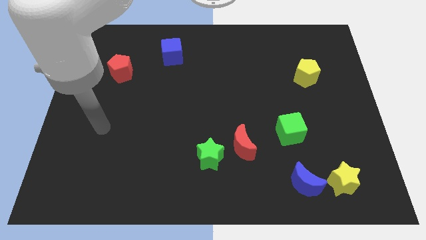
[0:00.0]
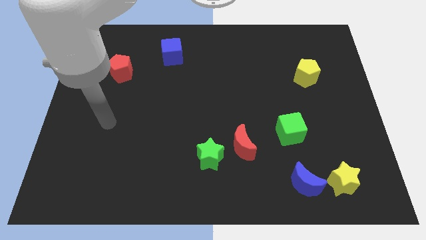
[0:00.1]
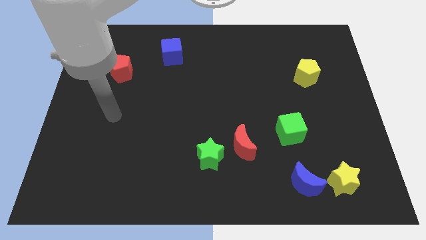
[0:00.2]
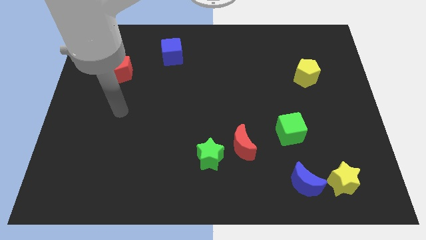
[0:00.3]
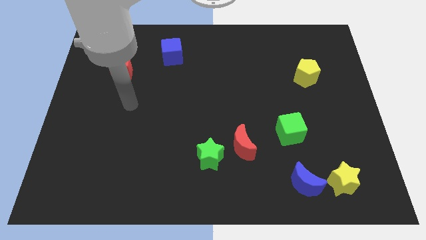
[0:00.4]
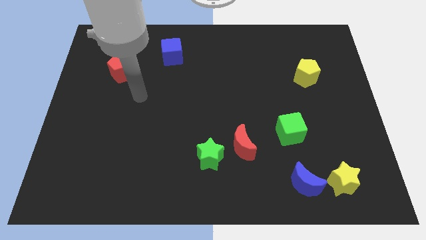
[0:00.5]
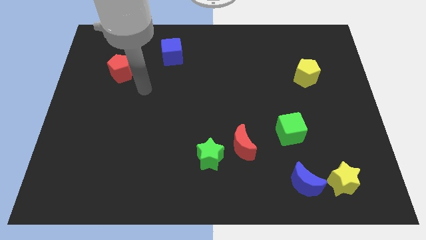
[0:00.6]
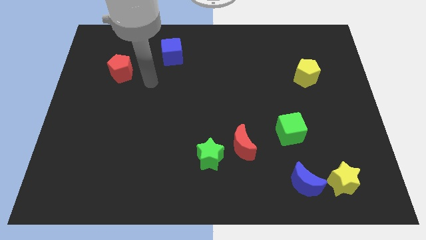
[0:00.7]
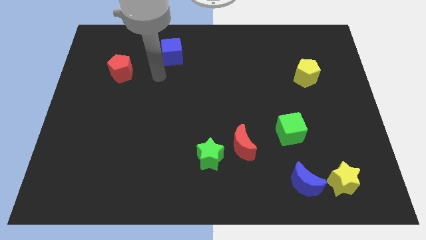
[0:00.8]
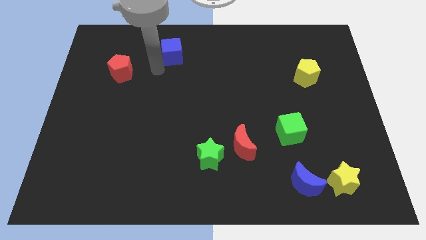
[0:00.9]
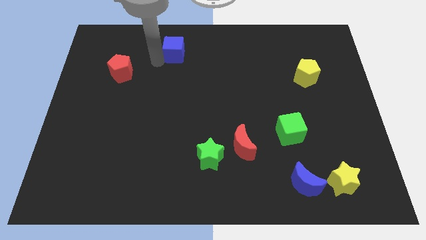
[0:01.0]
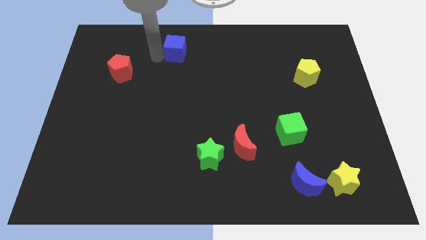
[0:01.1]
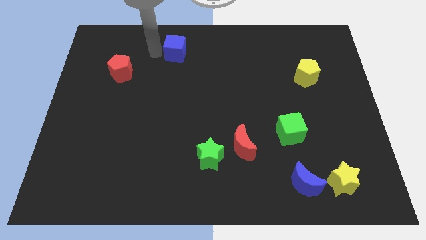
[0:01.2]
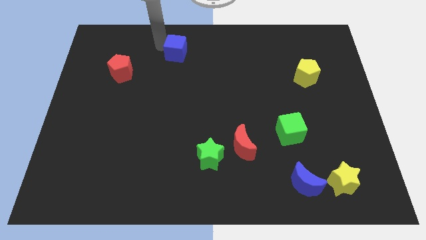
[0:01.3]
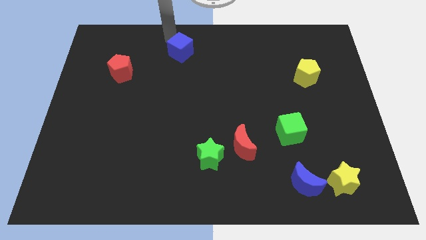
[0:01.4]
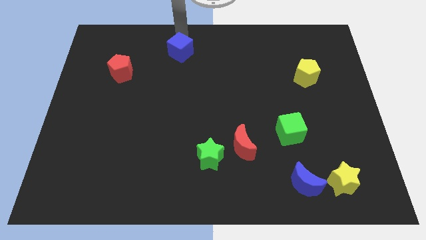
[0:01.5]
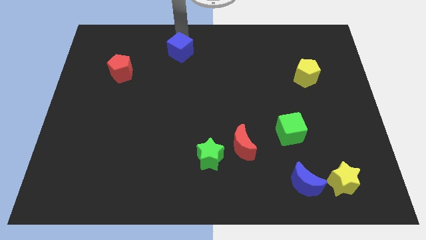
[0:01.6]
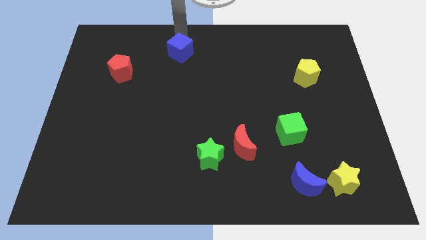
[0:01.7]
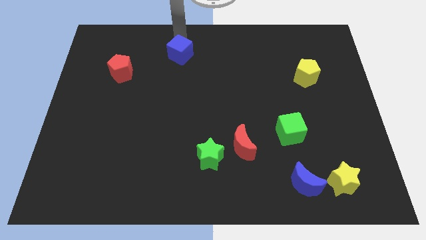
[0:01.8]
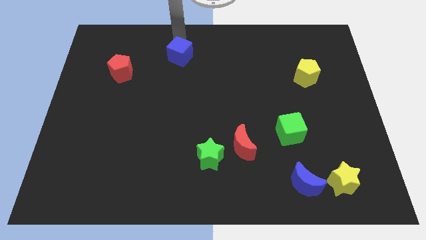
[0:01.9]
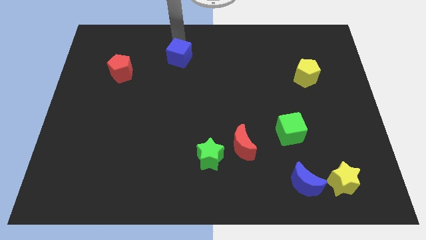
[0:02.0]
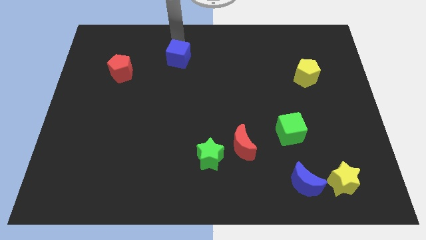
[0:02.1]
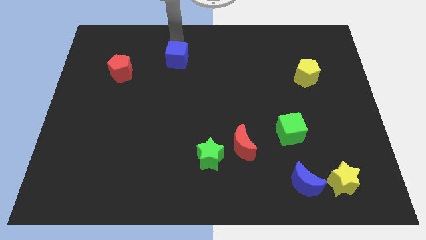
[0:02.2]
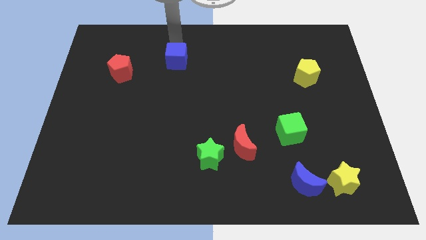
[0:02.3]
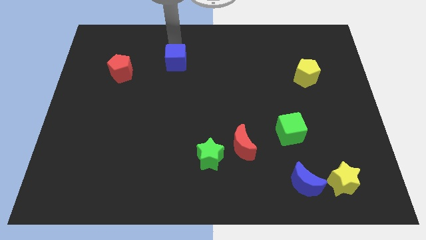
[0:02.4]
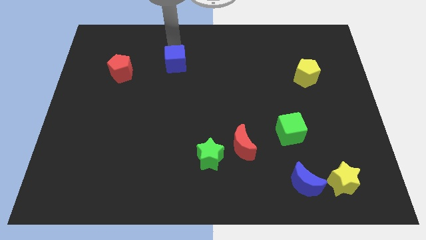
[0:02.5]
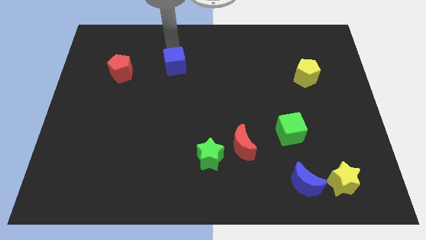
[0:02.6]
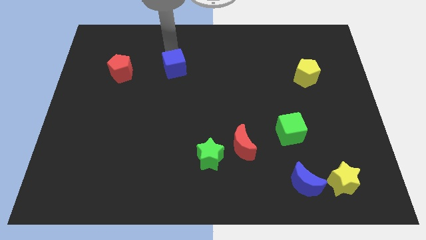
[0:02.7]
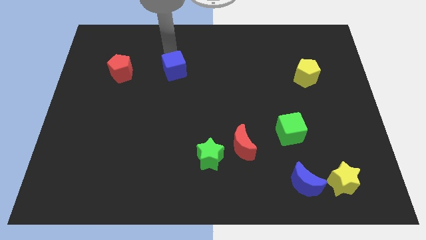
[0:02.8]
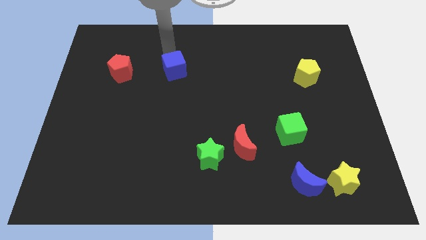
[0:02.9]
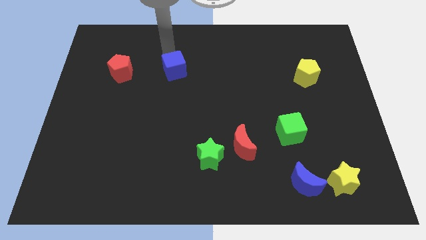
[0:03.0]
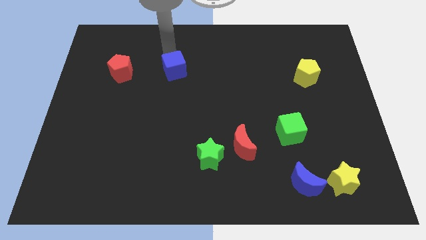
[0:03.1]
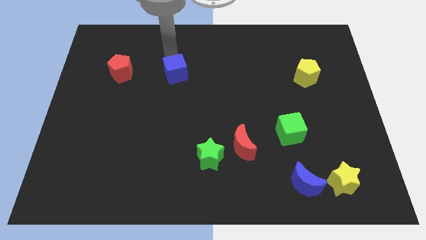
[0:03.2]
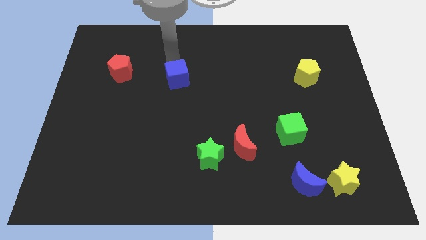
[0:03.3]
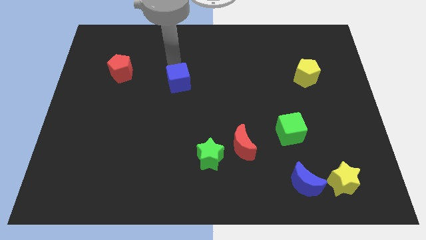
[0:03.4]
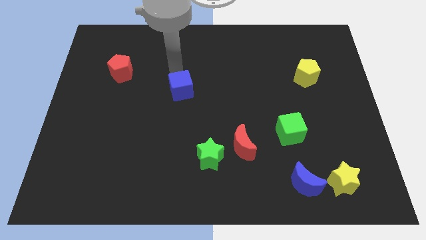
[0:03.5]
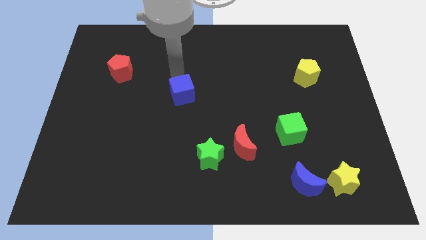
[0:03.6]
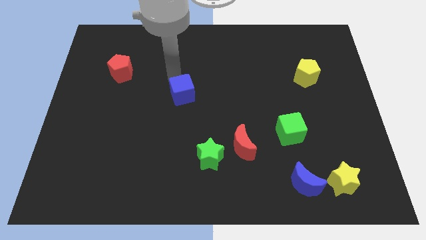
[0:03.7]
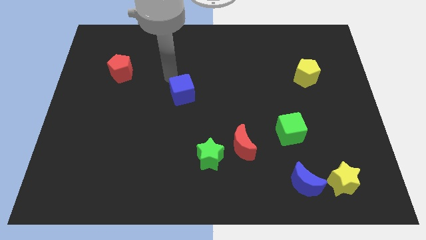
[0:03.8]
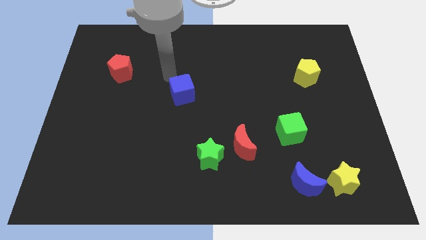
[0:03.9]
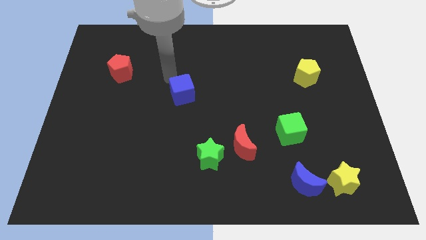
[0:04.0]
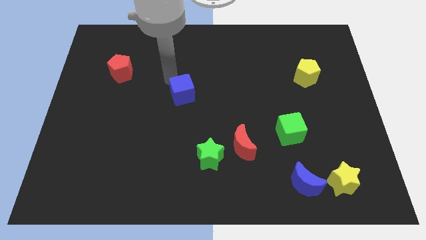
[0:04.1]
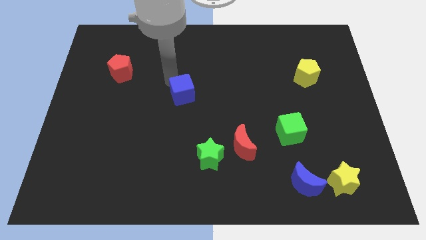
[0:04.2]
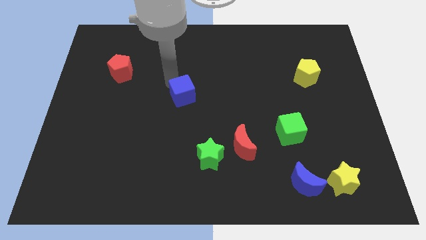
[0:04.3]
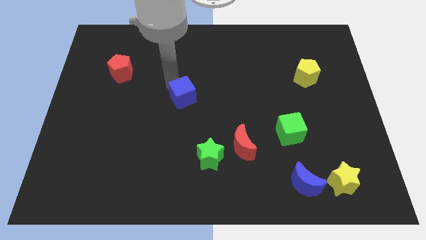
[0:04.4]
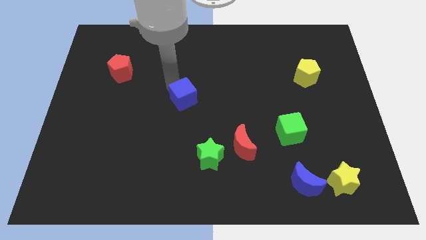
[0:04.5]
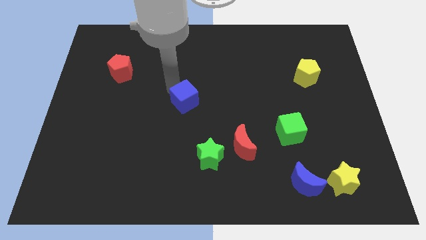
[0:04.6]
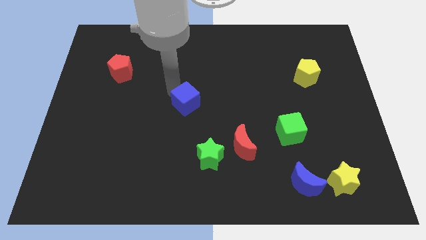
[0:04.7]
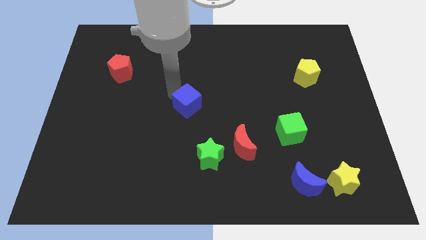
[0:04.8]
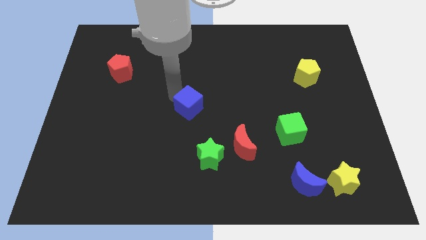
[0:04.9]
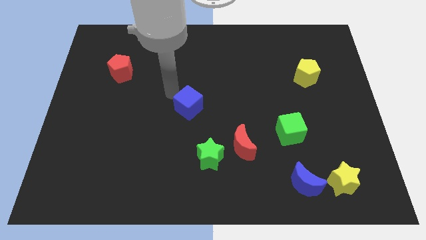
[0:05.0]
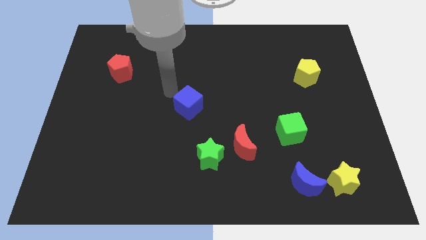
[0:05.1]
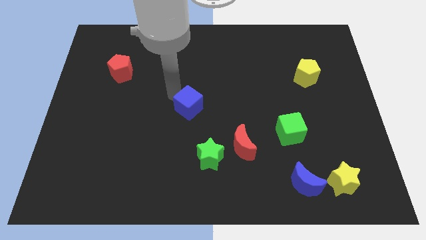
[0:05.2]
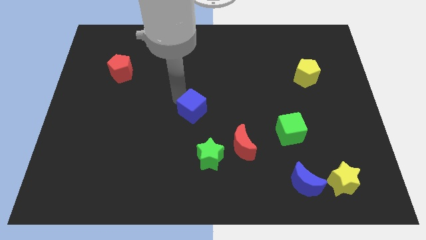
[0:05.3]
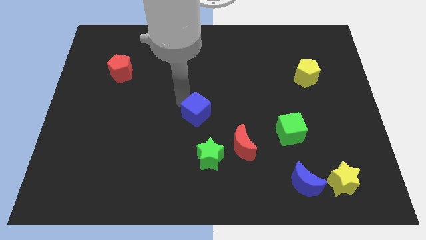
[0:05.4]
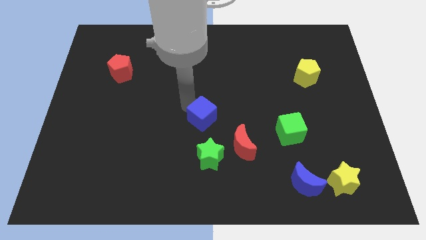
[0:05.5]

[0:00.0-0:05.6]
move the blue cube diagonally up and to the left of the red moon
